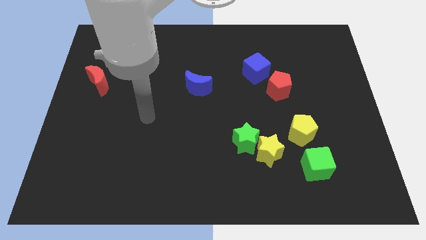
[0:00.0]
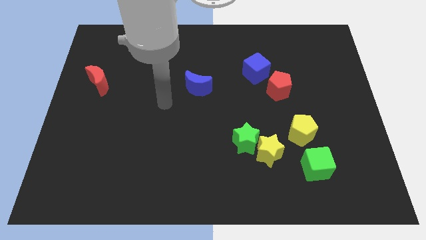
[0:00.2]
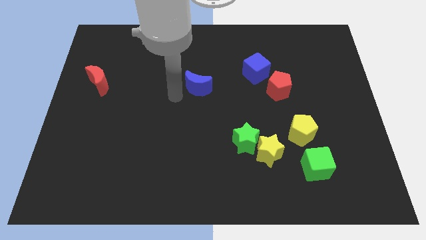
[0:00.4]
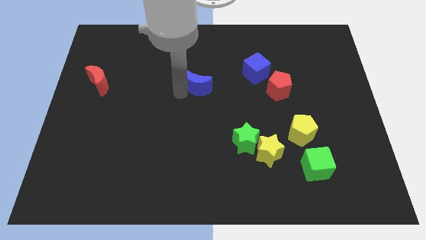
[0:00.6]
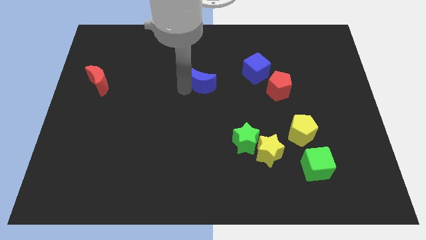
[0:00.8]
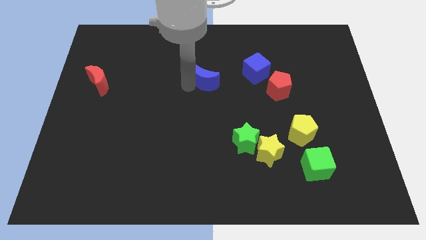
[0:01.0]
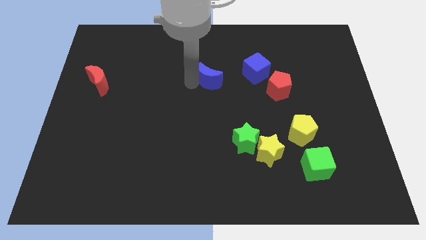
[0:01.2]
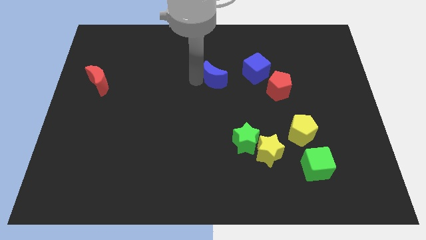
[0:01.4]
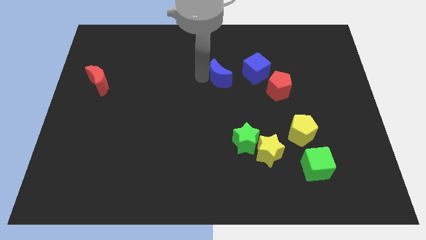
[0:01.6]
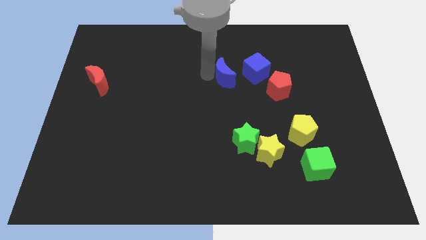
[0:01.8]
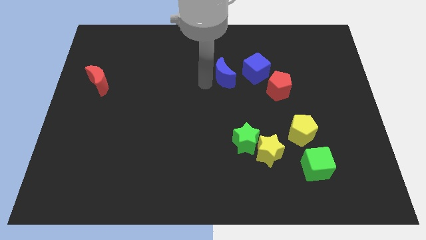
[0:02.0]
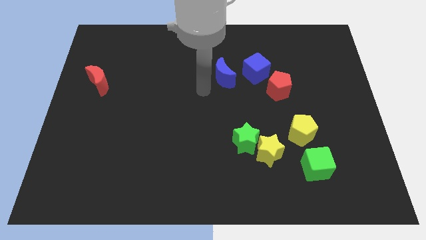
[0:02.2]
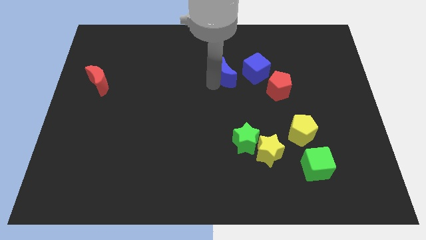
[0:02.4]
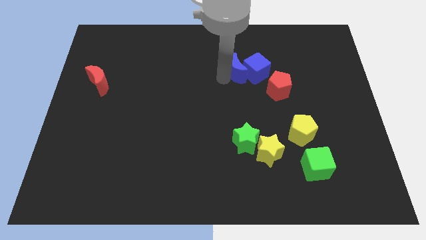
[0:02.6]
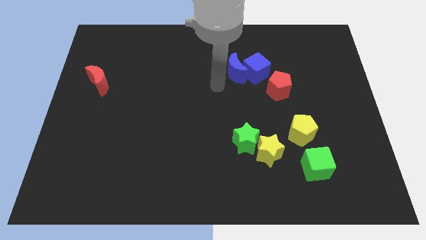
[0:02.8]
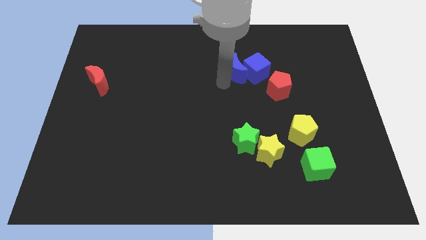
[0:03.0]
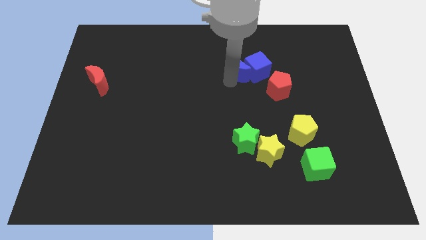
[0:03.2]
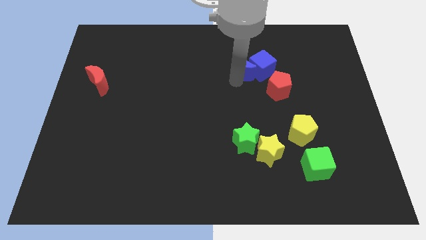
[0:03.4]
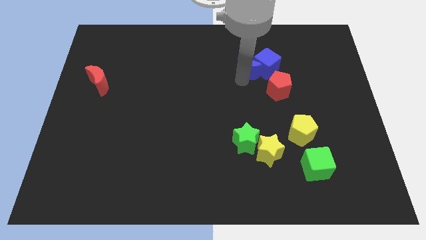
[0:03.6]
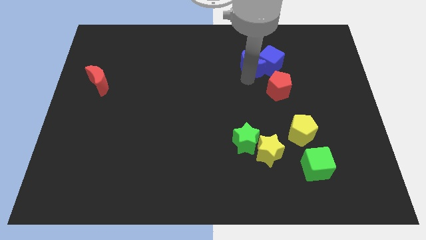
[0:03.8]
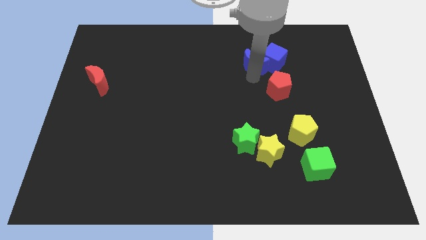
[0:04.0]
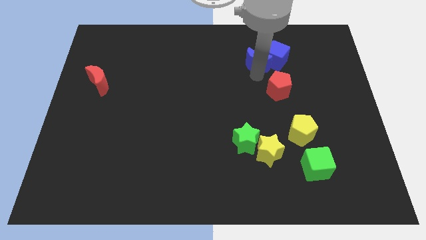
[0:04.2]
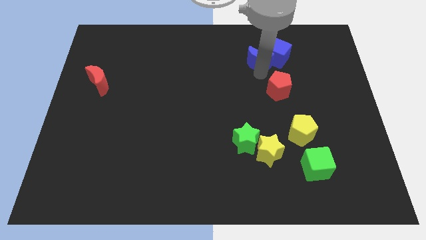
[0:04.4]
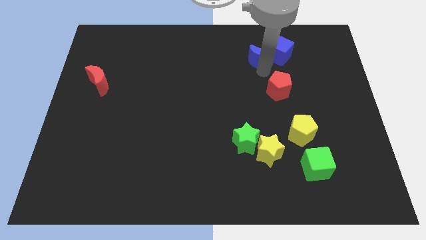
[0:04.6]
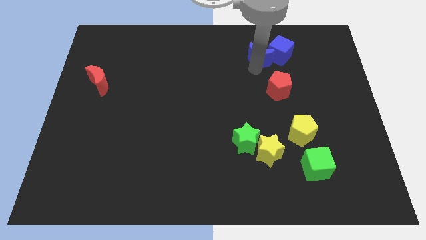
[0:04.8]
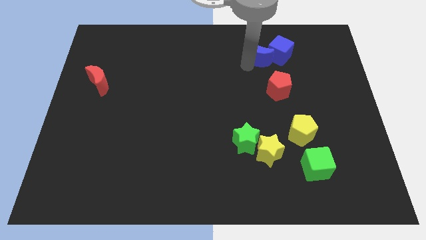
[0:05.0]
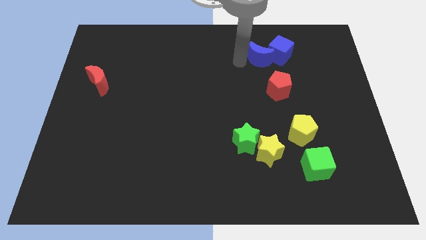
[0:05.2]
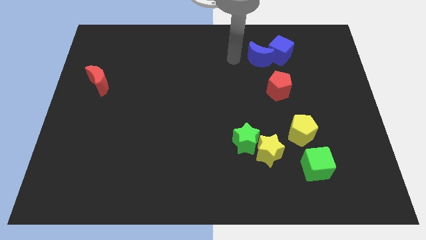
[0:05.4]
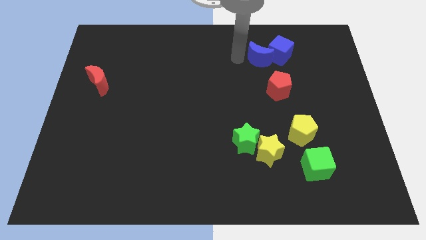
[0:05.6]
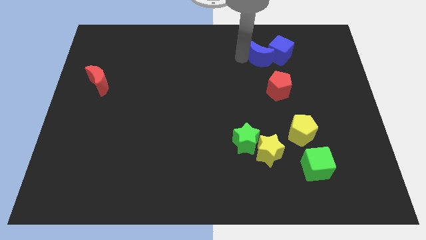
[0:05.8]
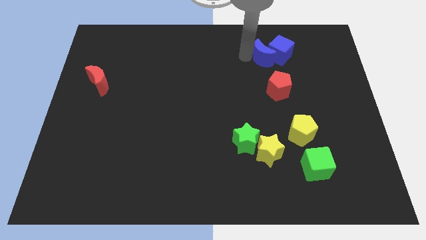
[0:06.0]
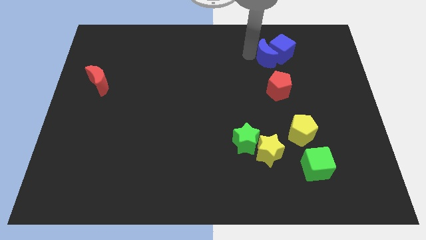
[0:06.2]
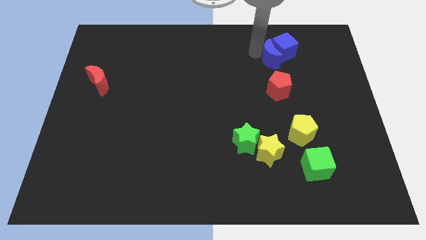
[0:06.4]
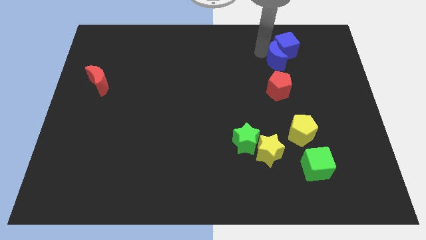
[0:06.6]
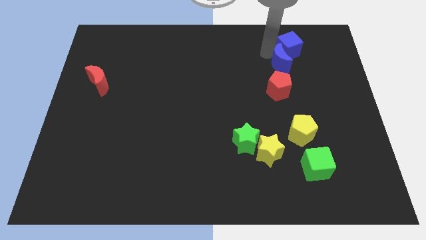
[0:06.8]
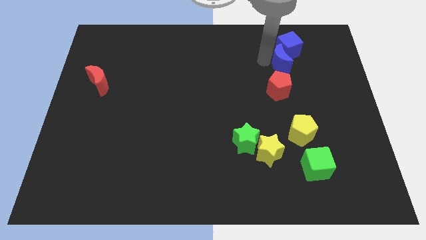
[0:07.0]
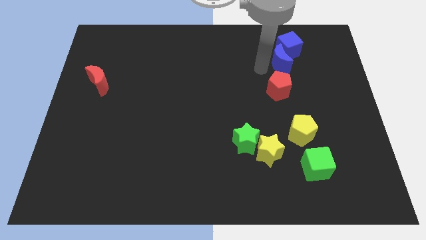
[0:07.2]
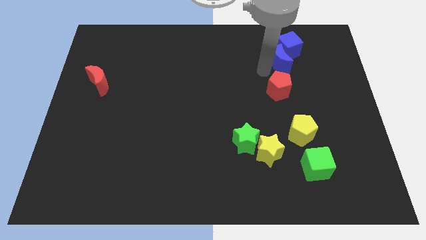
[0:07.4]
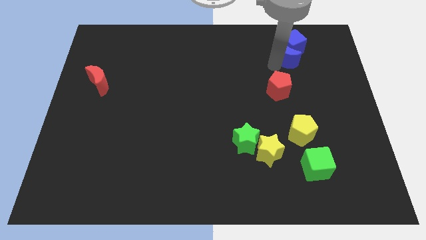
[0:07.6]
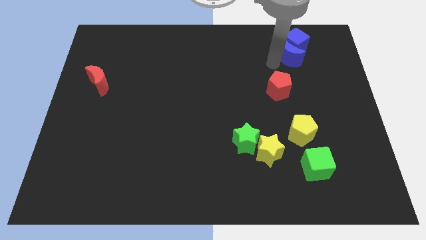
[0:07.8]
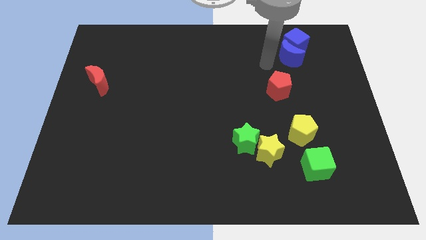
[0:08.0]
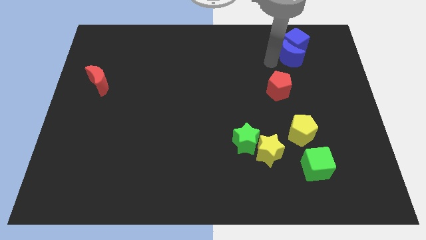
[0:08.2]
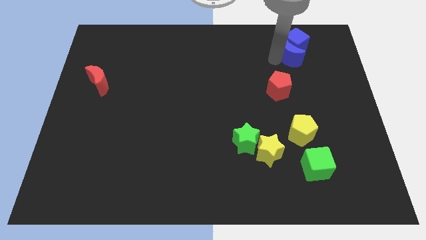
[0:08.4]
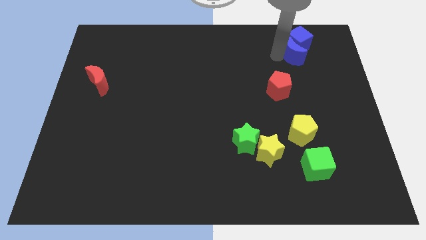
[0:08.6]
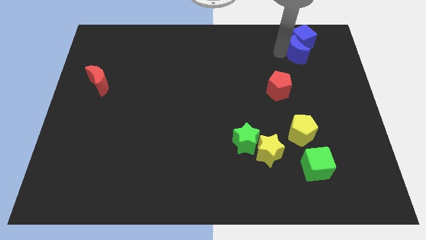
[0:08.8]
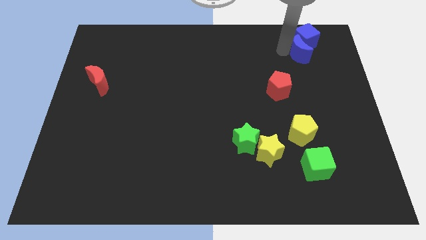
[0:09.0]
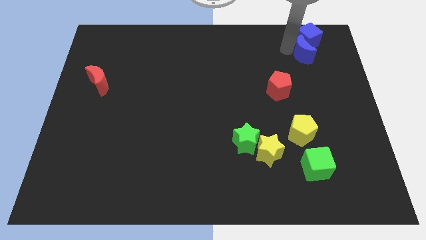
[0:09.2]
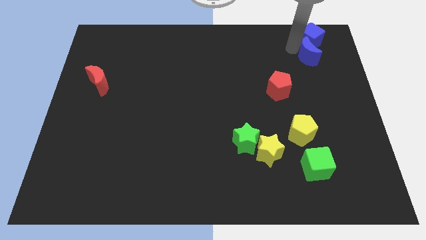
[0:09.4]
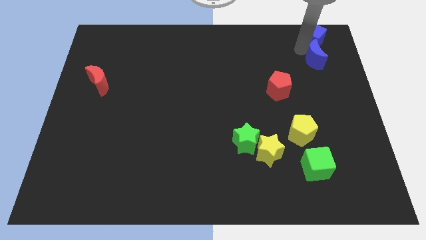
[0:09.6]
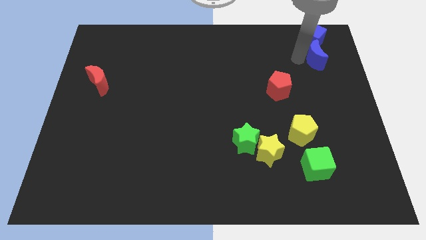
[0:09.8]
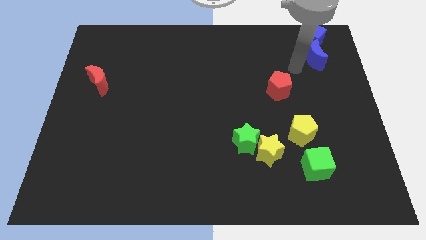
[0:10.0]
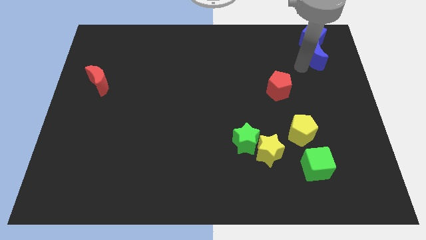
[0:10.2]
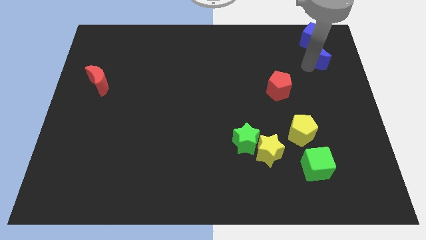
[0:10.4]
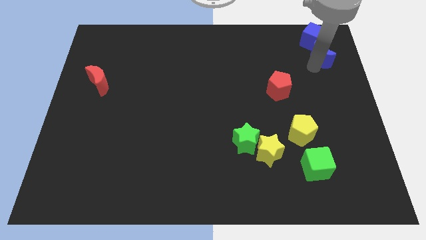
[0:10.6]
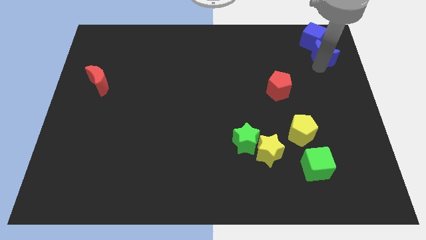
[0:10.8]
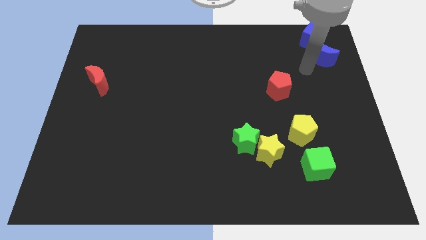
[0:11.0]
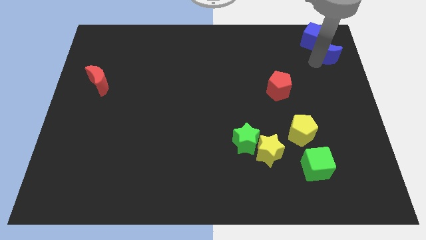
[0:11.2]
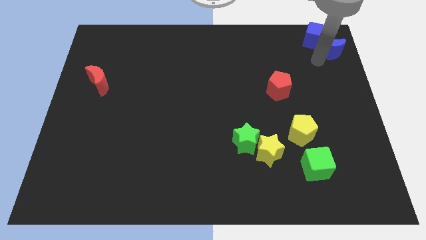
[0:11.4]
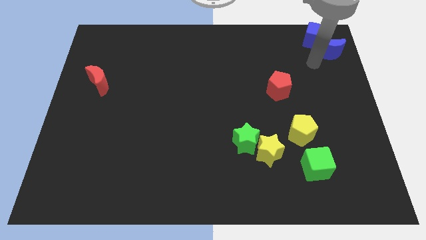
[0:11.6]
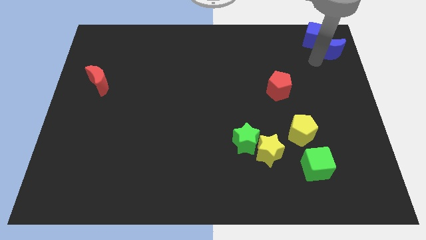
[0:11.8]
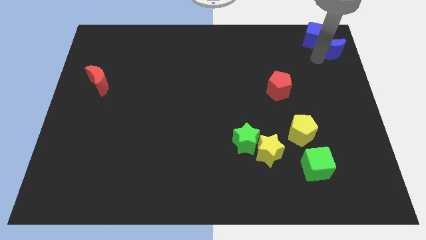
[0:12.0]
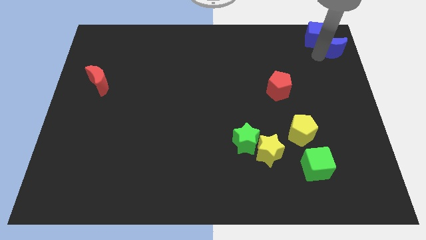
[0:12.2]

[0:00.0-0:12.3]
move the blue moon to the upper right corner
